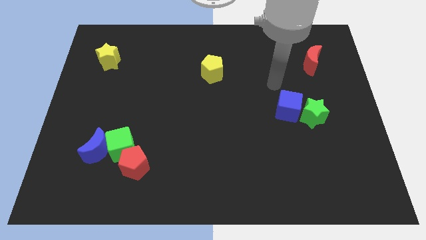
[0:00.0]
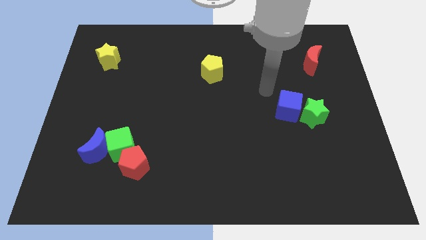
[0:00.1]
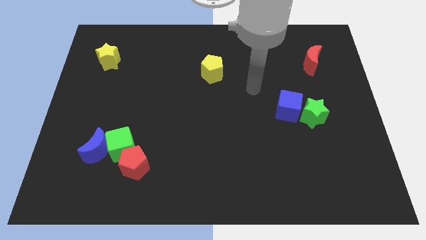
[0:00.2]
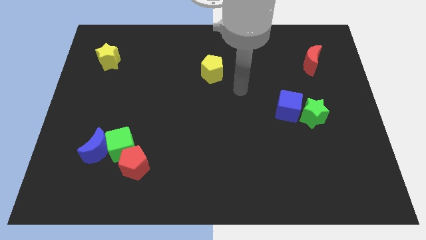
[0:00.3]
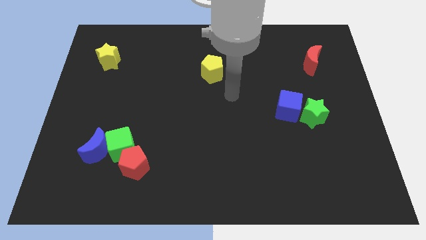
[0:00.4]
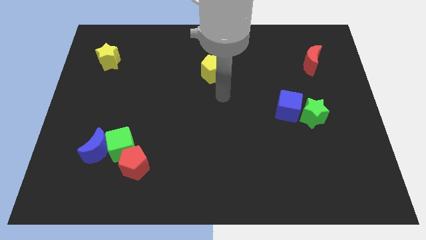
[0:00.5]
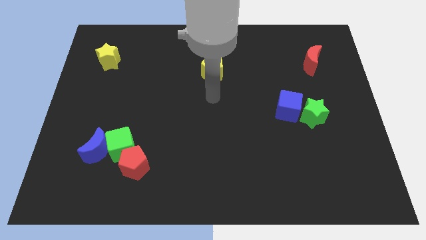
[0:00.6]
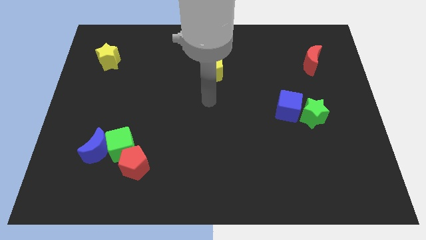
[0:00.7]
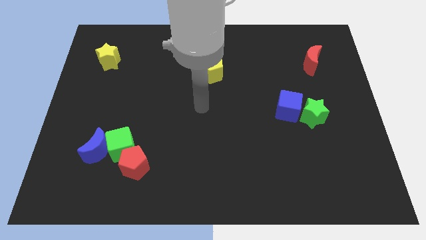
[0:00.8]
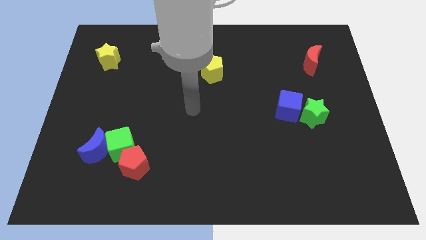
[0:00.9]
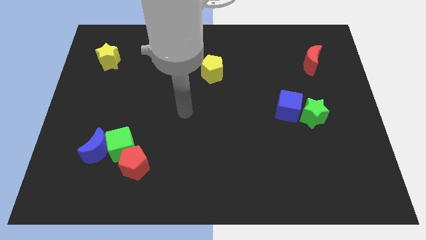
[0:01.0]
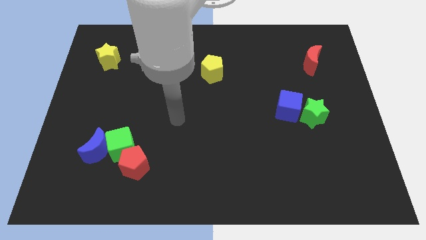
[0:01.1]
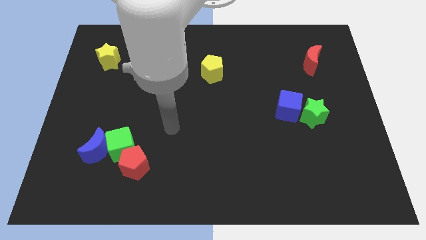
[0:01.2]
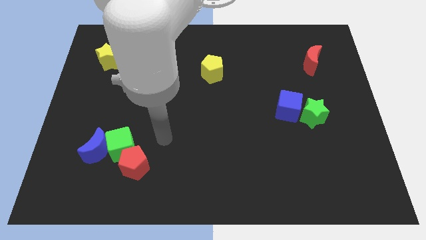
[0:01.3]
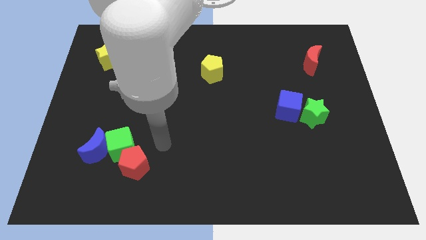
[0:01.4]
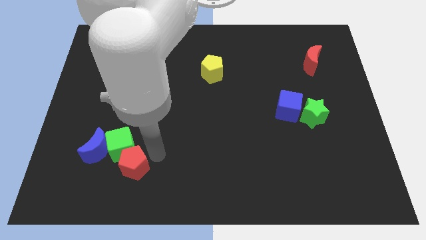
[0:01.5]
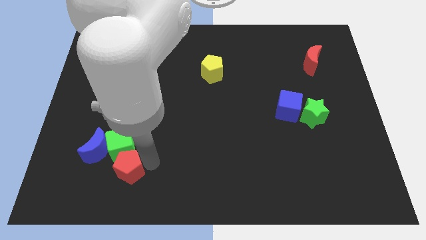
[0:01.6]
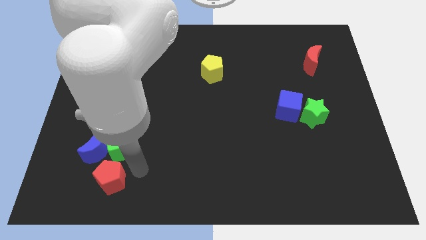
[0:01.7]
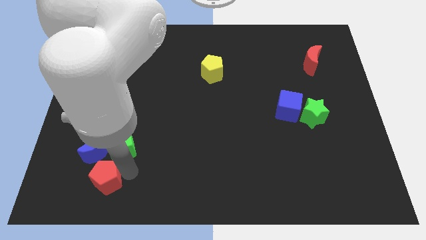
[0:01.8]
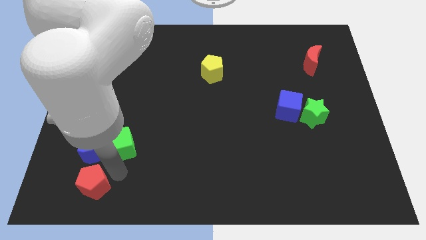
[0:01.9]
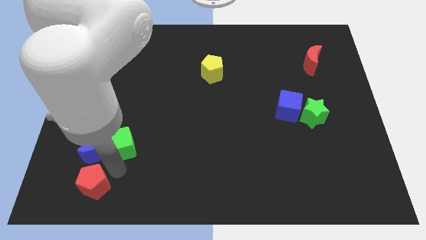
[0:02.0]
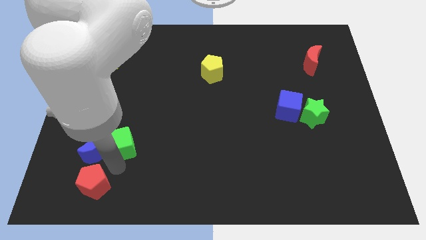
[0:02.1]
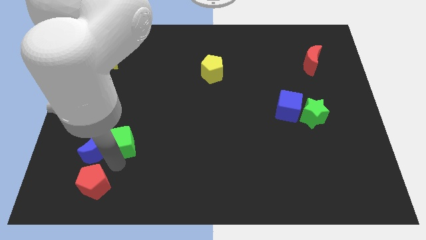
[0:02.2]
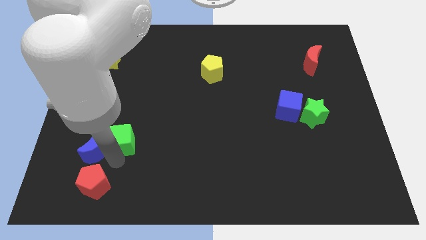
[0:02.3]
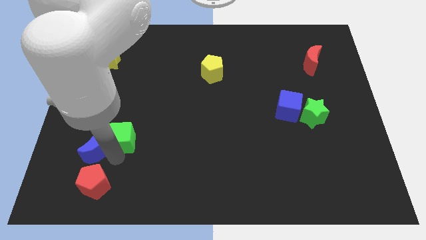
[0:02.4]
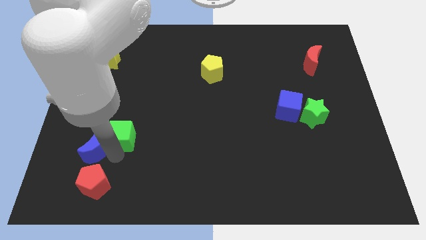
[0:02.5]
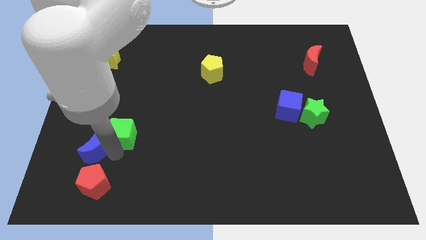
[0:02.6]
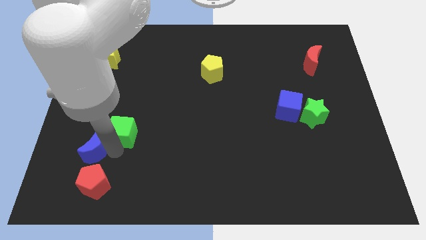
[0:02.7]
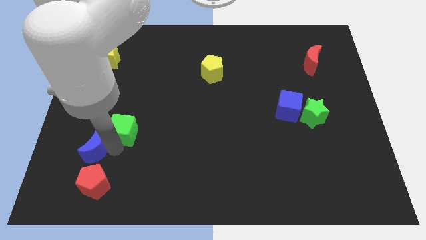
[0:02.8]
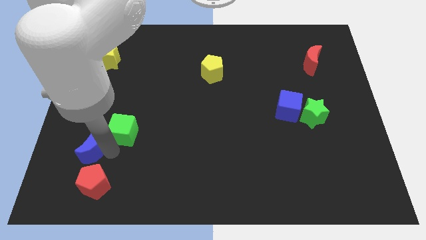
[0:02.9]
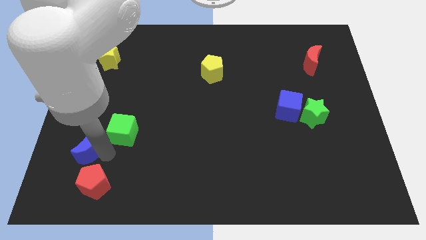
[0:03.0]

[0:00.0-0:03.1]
pull the green cube apart from the blue moon and red pentagon

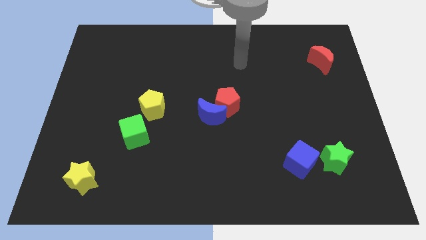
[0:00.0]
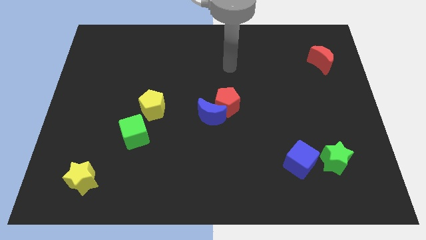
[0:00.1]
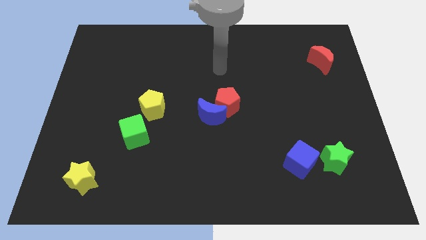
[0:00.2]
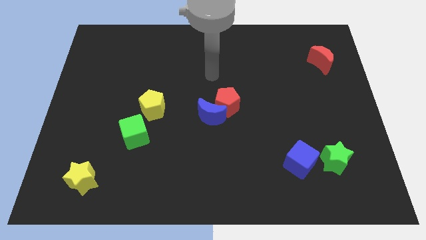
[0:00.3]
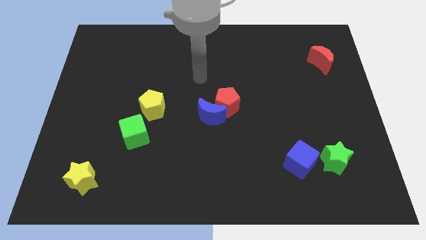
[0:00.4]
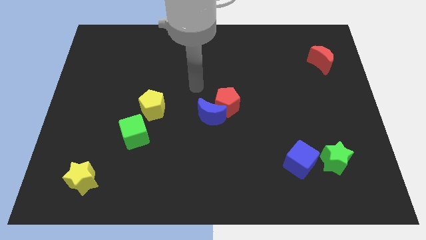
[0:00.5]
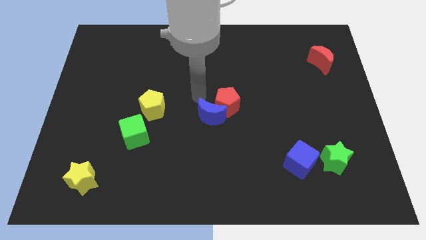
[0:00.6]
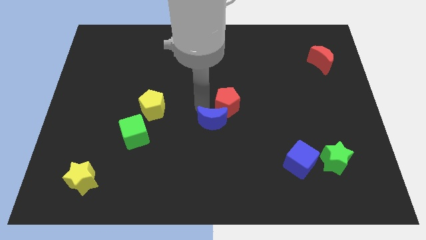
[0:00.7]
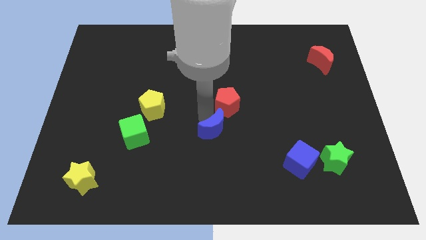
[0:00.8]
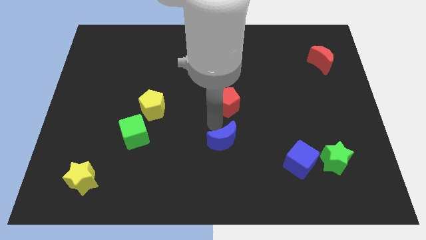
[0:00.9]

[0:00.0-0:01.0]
move the red pentagon away from the blue moon

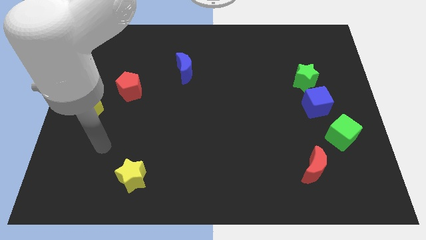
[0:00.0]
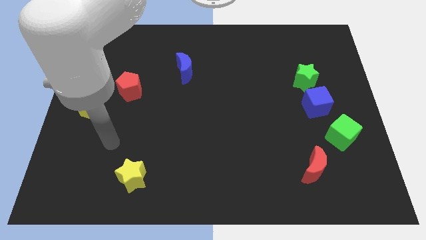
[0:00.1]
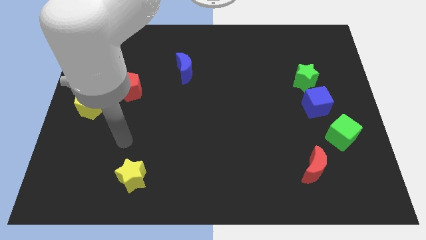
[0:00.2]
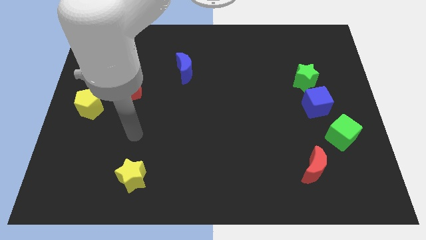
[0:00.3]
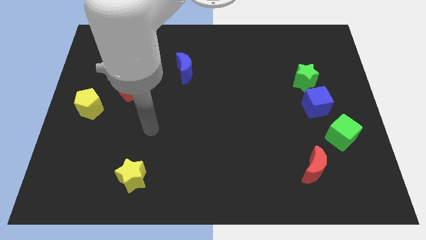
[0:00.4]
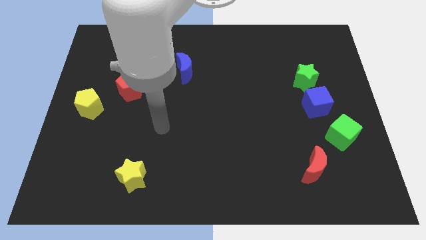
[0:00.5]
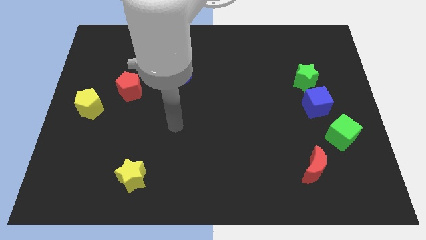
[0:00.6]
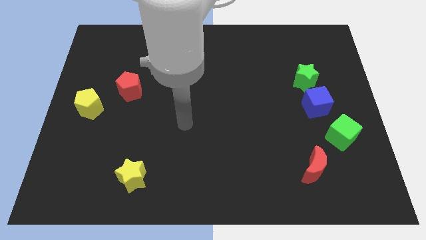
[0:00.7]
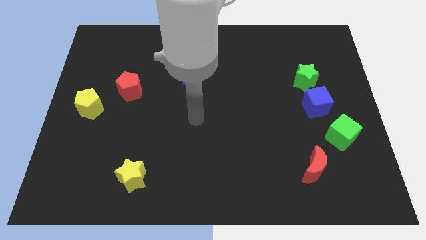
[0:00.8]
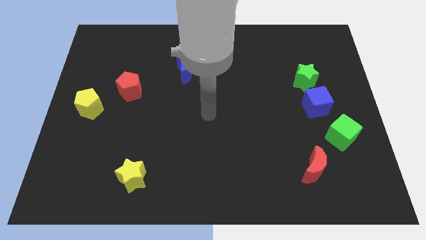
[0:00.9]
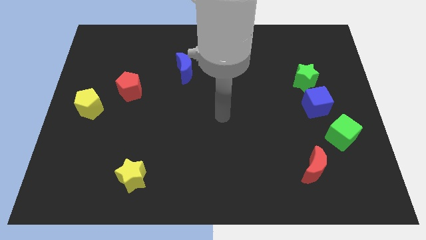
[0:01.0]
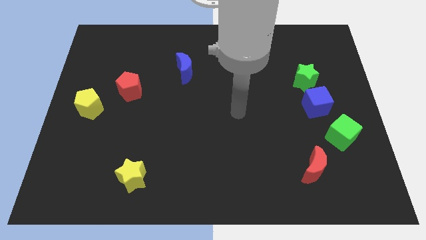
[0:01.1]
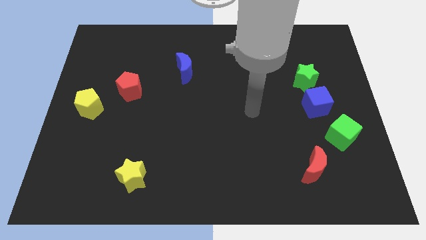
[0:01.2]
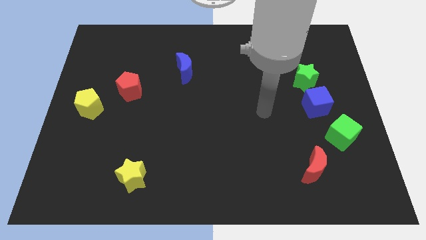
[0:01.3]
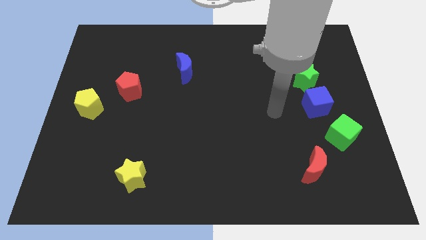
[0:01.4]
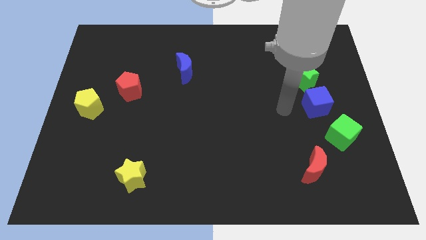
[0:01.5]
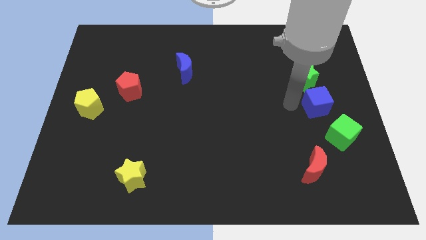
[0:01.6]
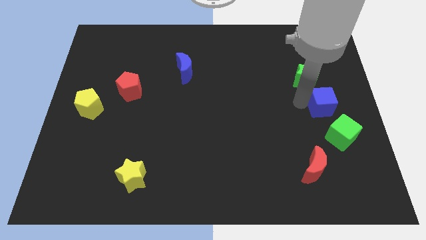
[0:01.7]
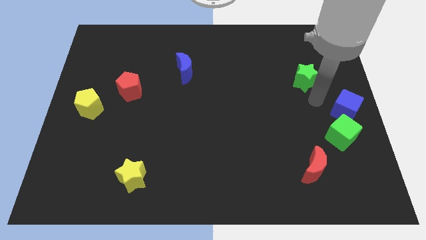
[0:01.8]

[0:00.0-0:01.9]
pull the green star apart from the blue cube

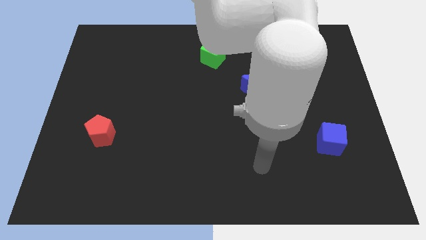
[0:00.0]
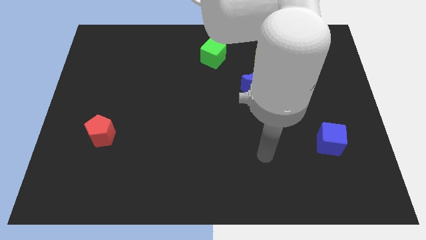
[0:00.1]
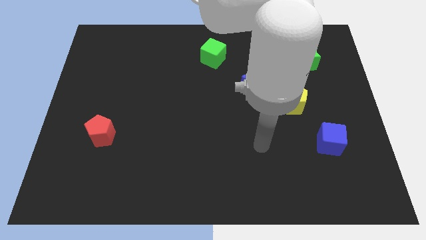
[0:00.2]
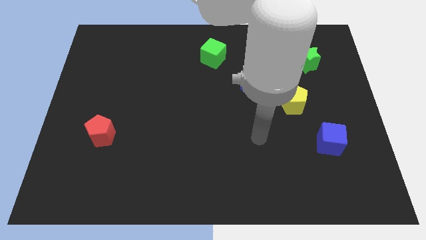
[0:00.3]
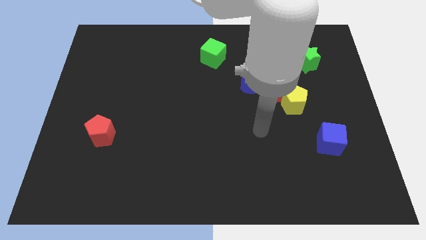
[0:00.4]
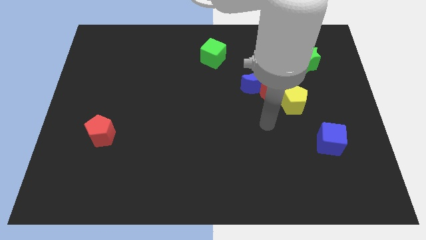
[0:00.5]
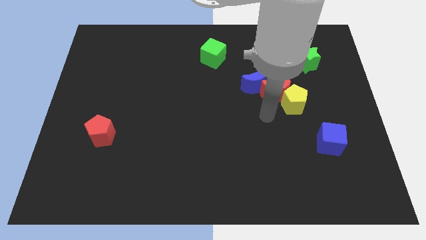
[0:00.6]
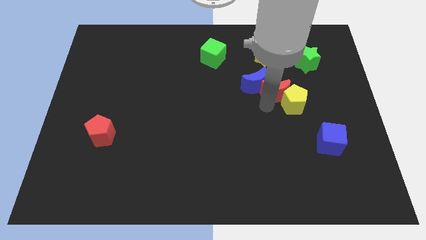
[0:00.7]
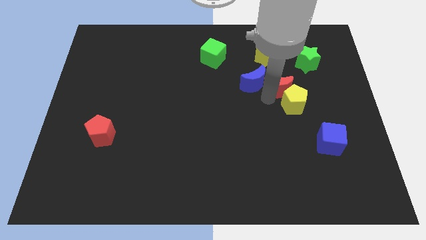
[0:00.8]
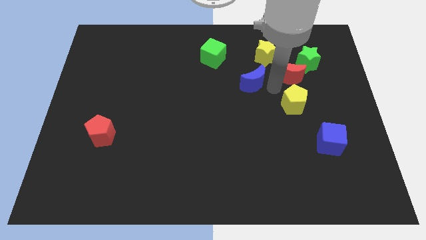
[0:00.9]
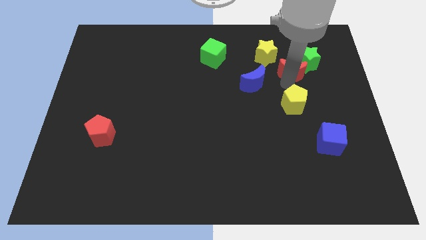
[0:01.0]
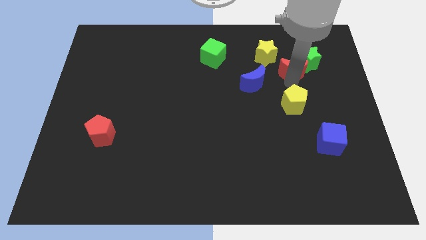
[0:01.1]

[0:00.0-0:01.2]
pull the yellow pentagon apart from the red moon

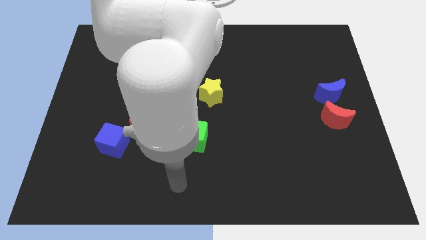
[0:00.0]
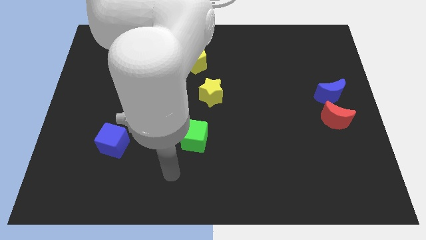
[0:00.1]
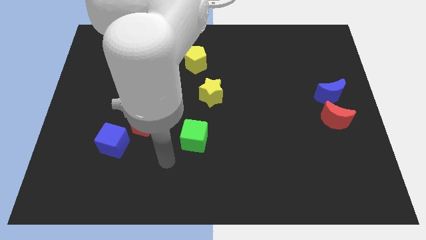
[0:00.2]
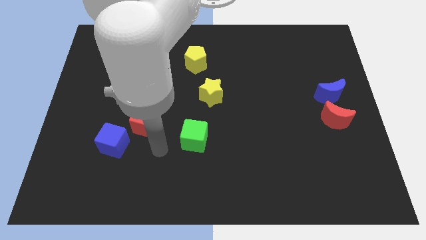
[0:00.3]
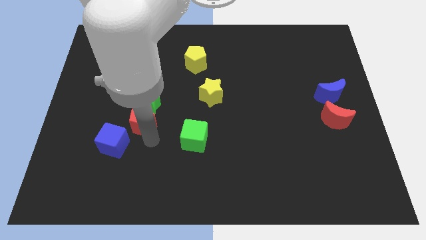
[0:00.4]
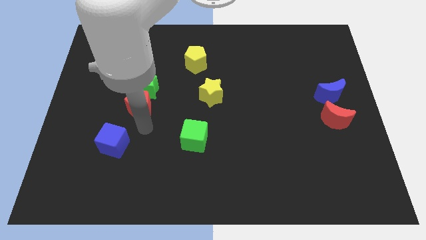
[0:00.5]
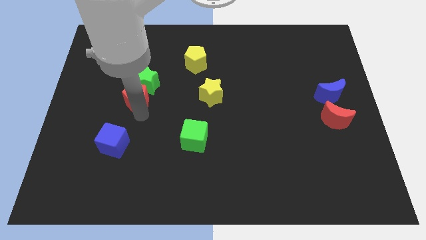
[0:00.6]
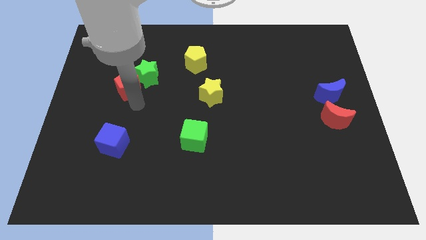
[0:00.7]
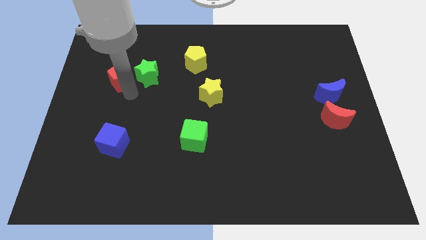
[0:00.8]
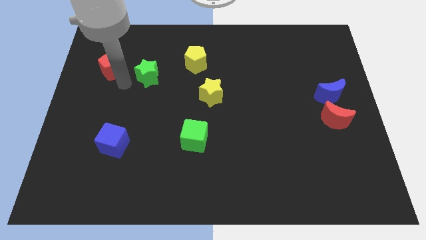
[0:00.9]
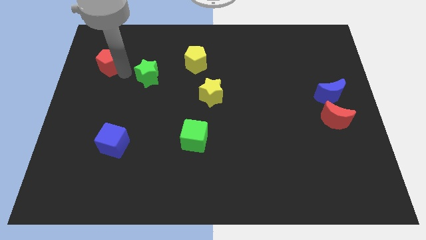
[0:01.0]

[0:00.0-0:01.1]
separate the green star from the red pentagon

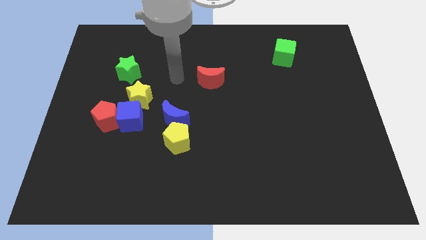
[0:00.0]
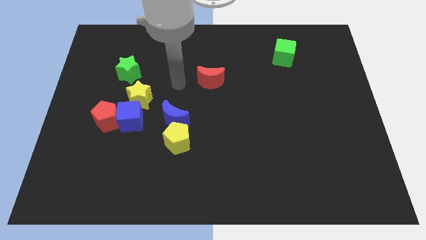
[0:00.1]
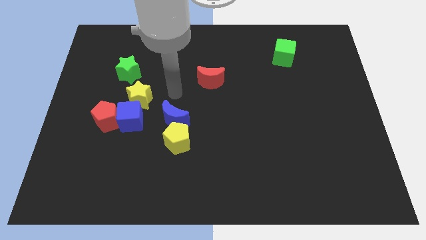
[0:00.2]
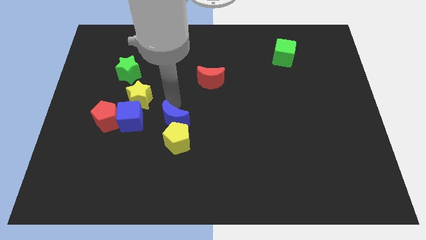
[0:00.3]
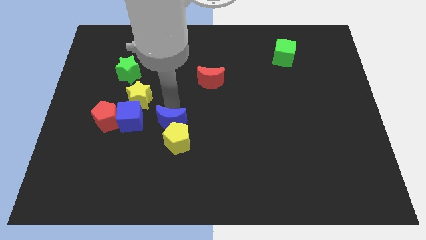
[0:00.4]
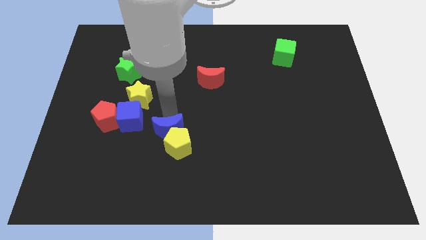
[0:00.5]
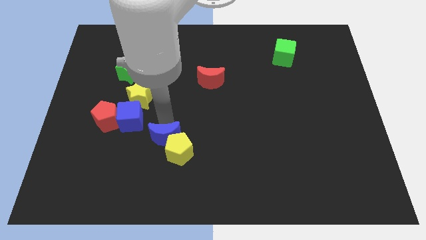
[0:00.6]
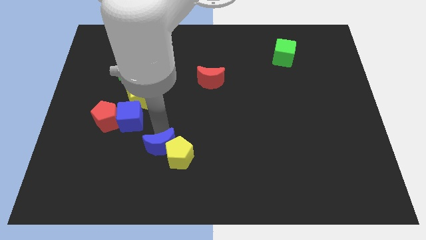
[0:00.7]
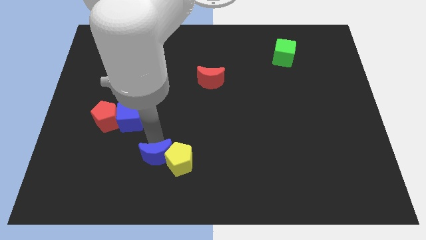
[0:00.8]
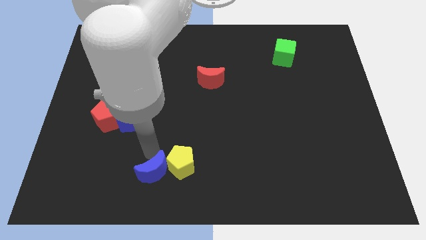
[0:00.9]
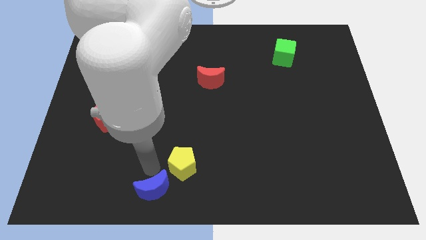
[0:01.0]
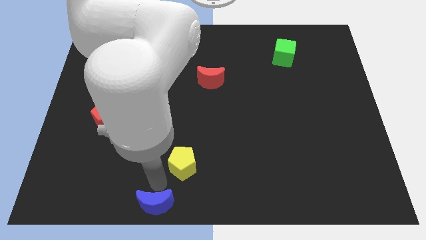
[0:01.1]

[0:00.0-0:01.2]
move the yellow pentagon away from the blue moon
